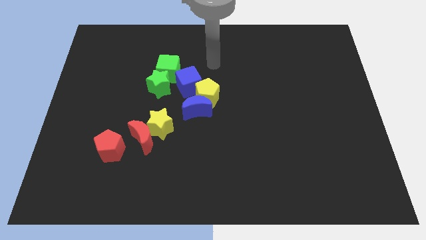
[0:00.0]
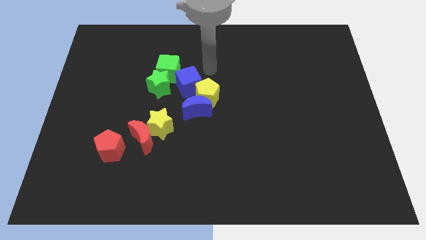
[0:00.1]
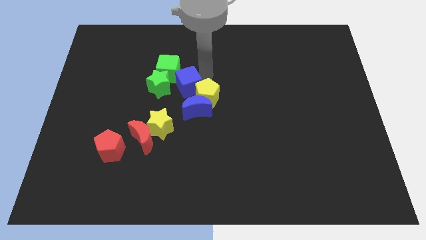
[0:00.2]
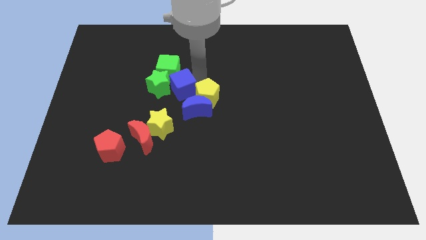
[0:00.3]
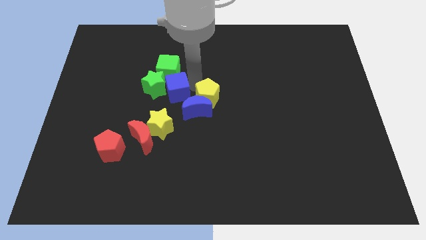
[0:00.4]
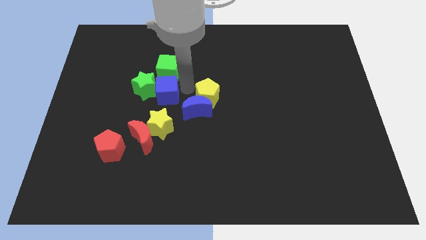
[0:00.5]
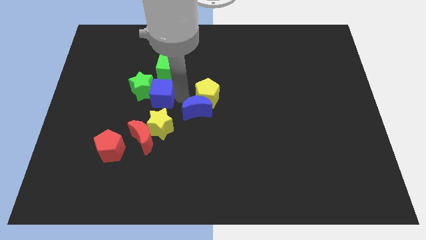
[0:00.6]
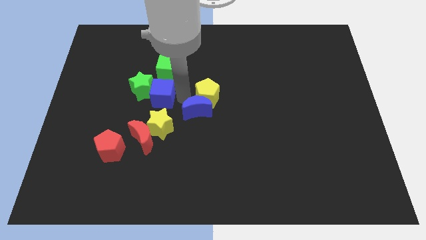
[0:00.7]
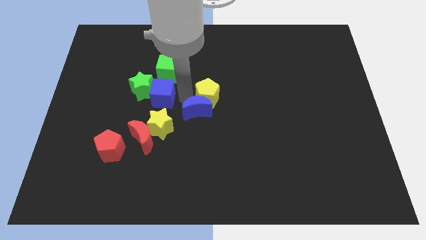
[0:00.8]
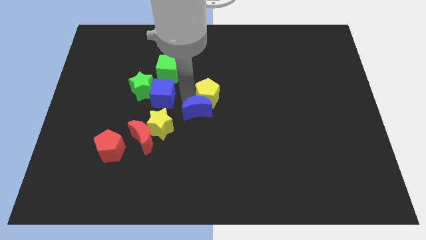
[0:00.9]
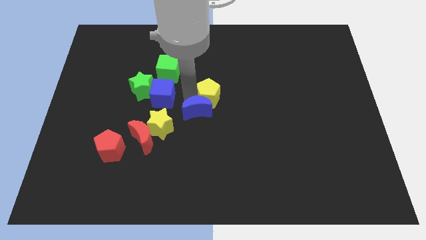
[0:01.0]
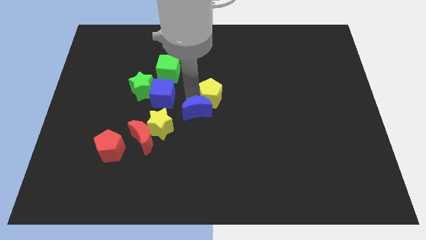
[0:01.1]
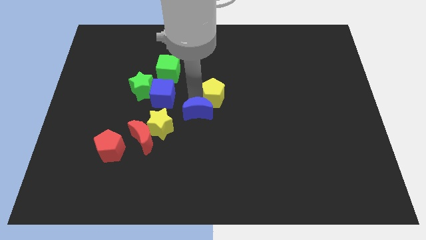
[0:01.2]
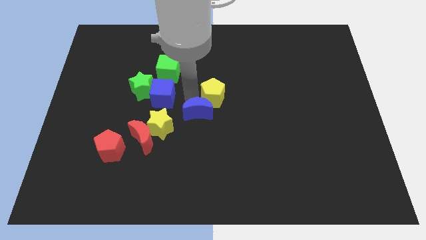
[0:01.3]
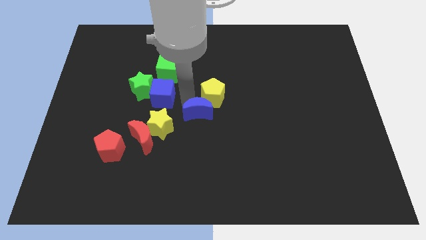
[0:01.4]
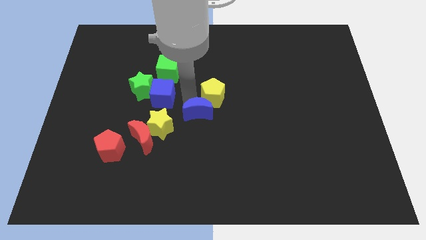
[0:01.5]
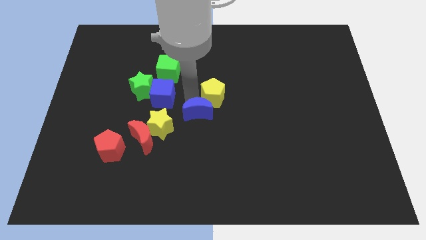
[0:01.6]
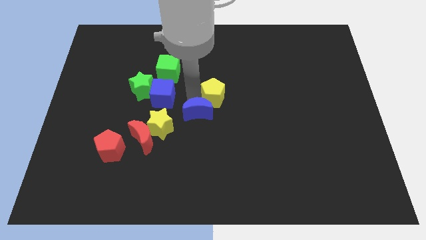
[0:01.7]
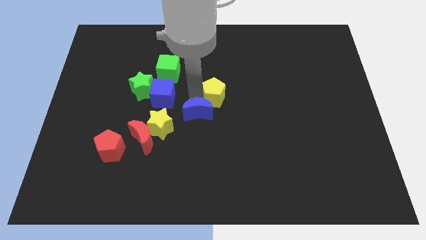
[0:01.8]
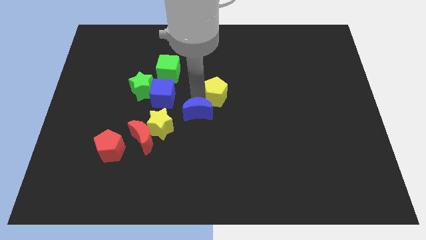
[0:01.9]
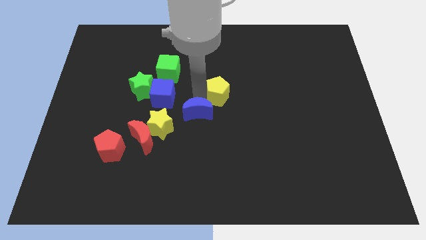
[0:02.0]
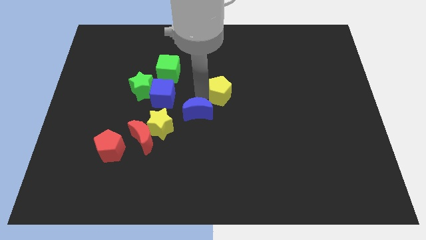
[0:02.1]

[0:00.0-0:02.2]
separate the yellow pentagon from the blue moon and blue cube

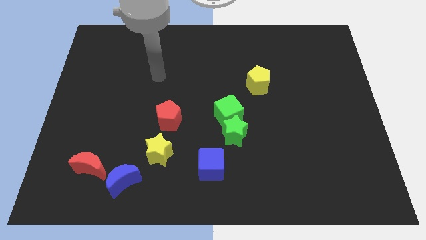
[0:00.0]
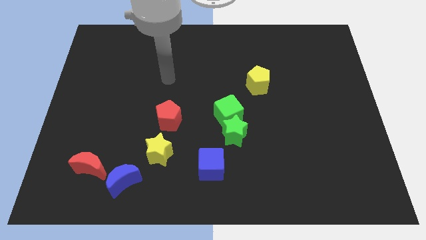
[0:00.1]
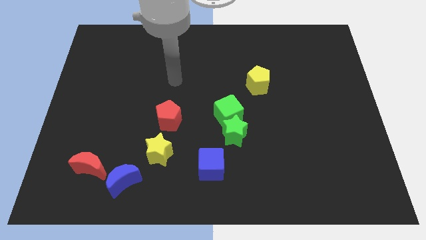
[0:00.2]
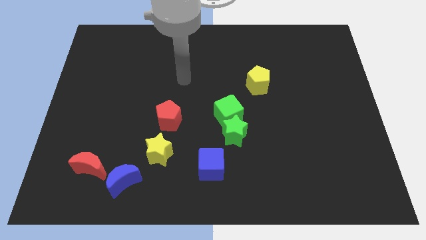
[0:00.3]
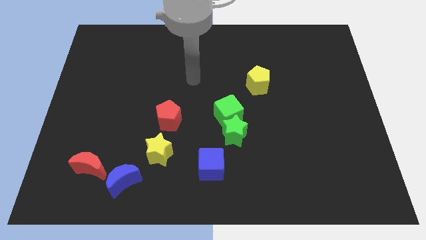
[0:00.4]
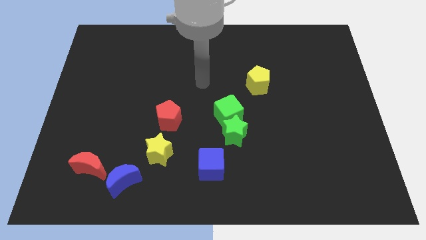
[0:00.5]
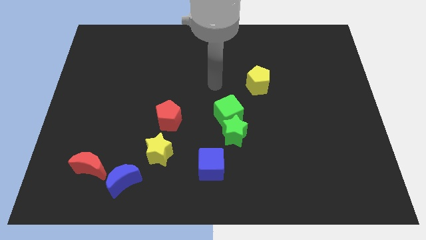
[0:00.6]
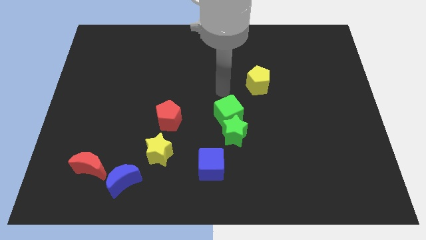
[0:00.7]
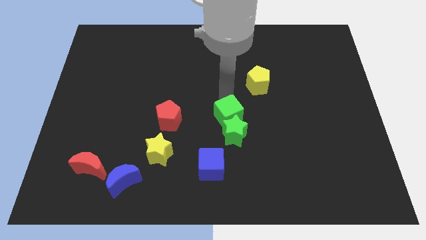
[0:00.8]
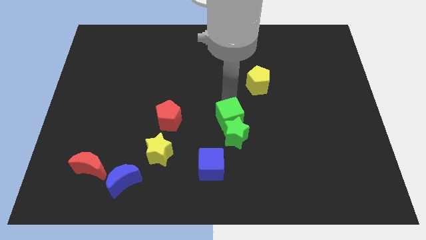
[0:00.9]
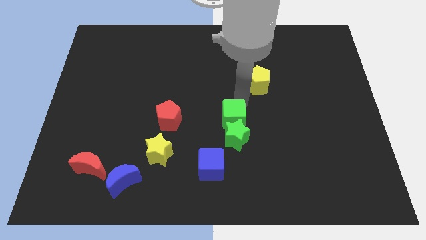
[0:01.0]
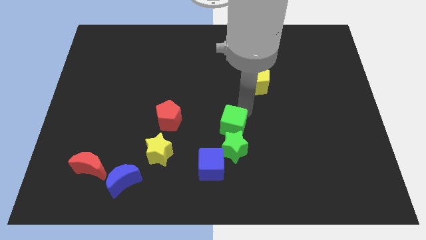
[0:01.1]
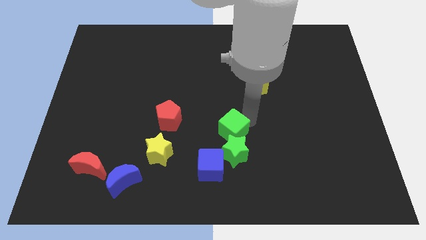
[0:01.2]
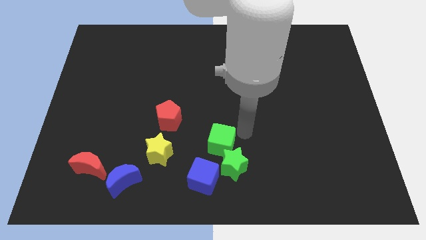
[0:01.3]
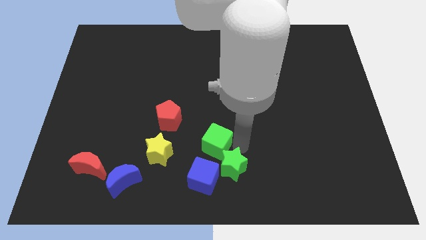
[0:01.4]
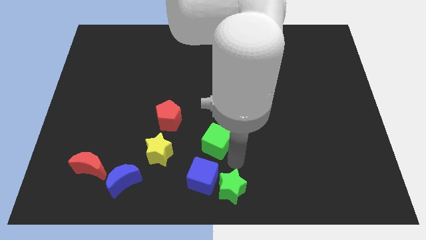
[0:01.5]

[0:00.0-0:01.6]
separate the green cube from the green star

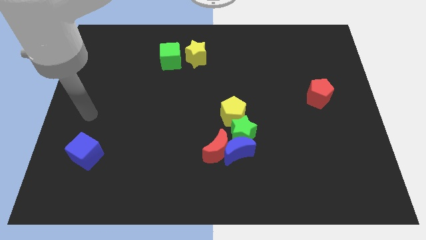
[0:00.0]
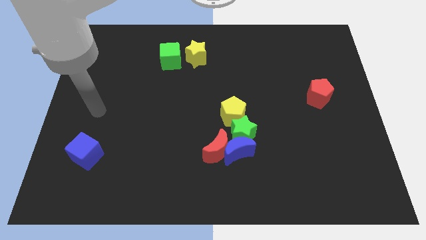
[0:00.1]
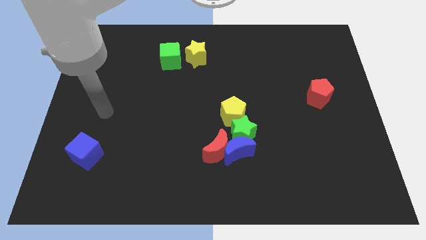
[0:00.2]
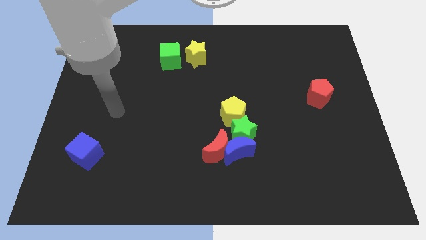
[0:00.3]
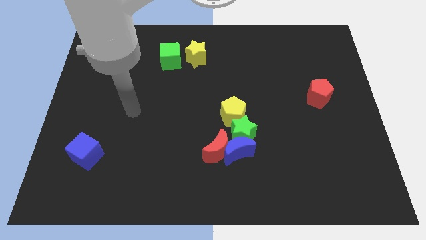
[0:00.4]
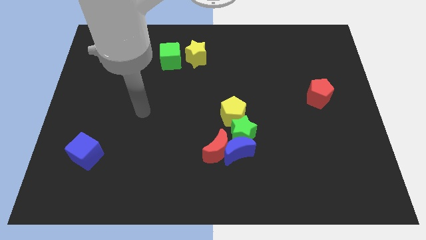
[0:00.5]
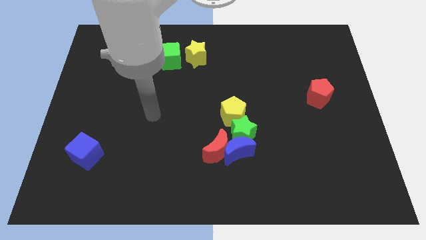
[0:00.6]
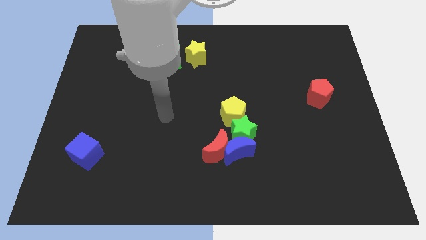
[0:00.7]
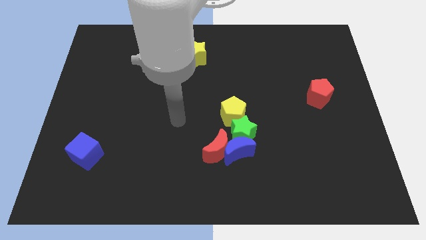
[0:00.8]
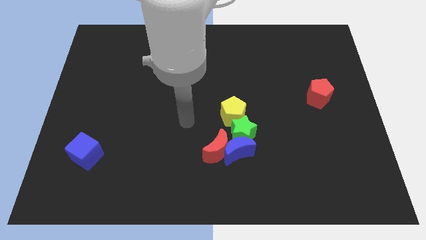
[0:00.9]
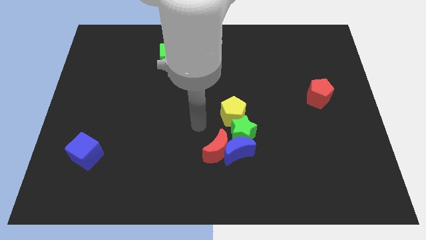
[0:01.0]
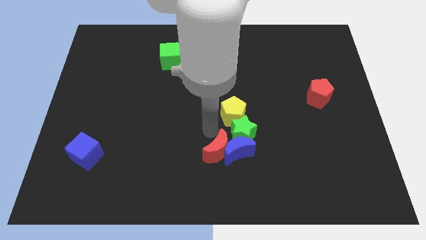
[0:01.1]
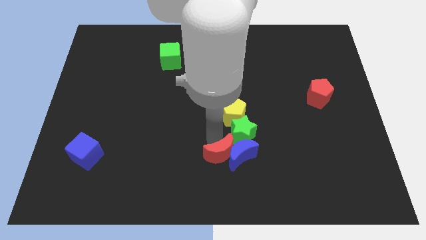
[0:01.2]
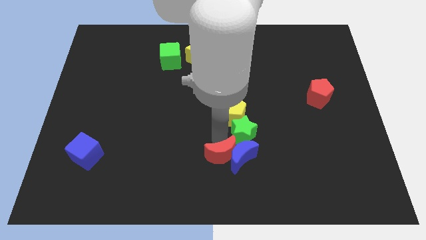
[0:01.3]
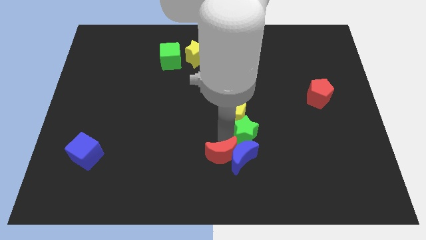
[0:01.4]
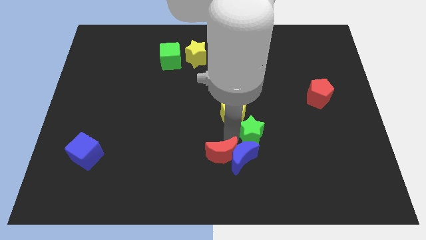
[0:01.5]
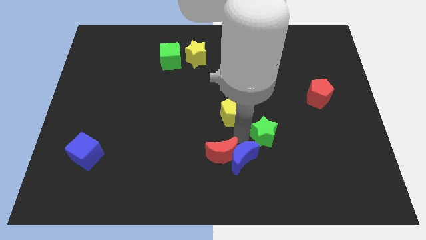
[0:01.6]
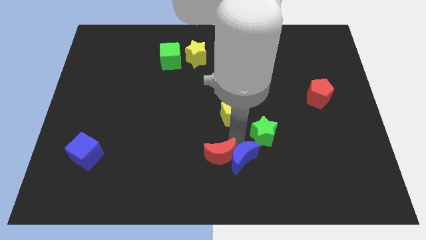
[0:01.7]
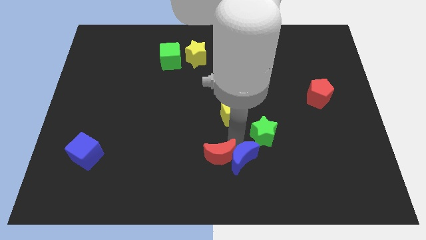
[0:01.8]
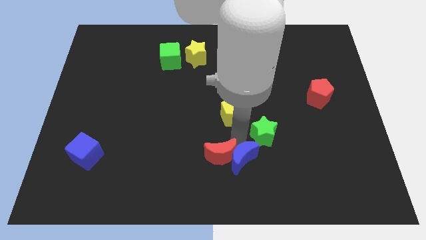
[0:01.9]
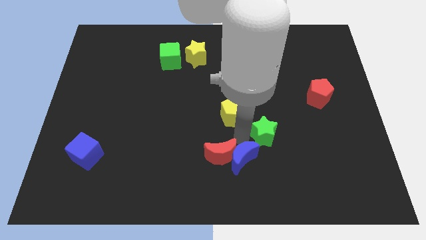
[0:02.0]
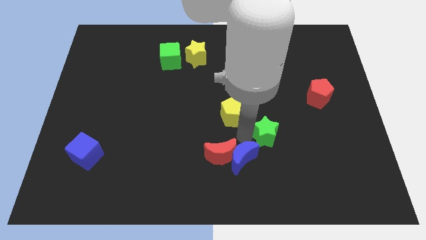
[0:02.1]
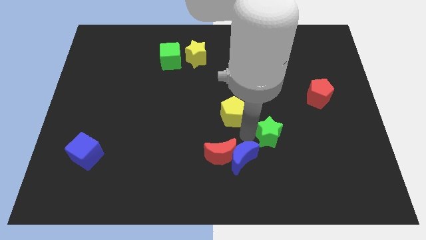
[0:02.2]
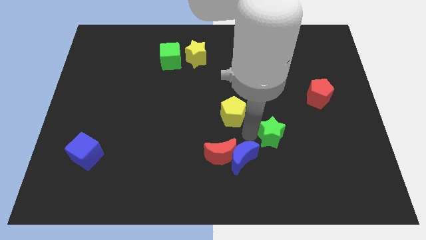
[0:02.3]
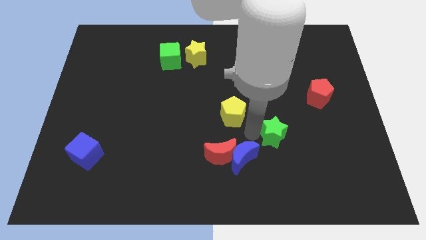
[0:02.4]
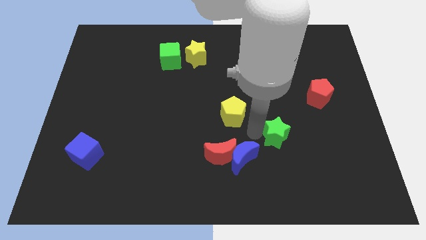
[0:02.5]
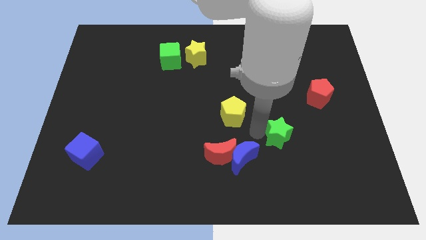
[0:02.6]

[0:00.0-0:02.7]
pull the green star apart from the blue moon, yellow pentagon, and red moon

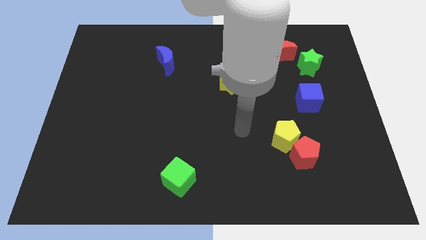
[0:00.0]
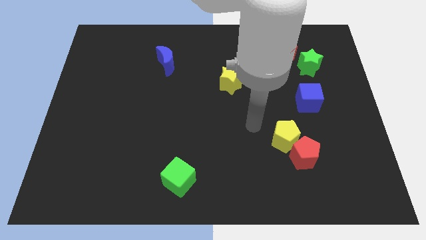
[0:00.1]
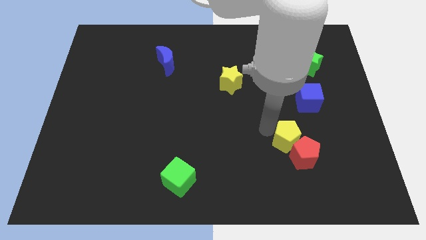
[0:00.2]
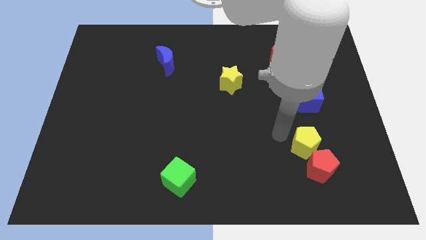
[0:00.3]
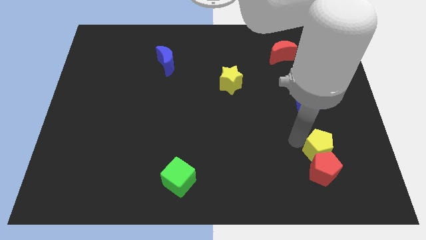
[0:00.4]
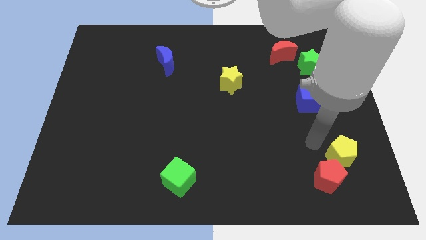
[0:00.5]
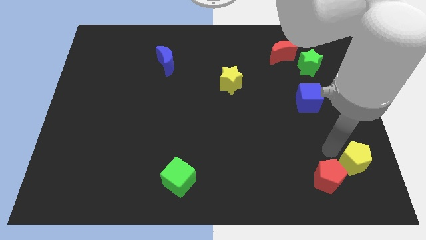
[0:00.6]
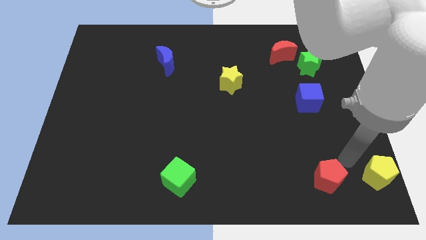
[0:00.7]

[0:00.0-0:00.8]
pull the red pentagon apart from the yellow pentagon

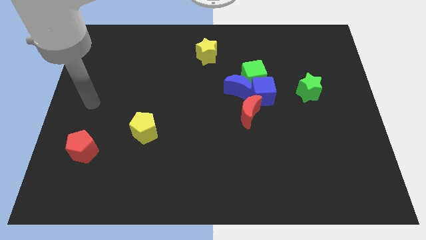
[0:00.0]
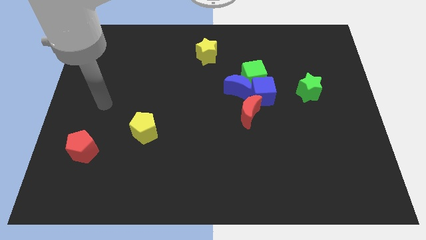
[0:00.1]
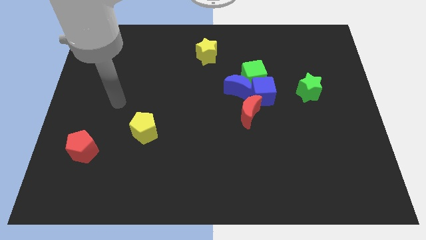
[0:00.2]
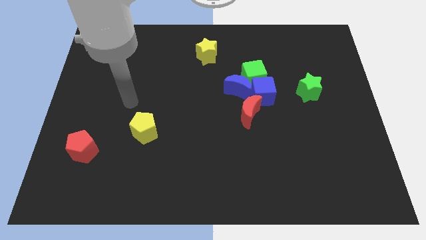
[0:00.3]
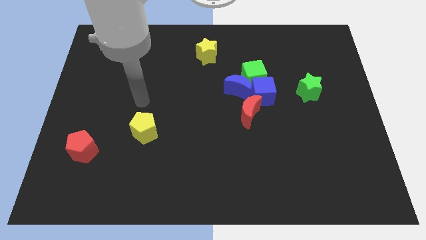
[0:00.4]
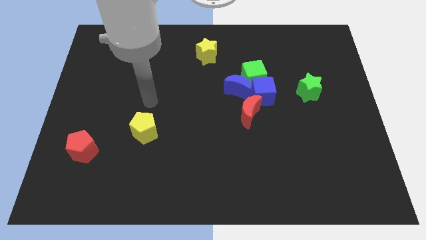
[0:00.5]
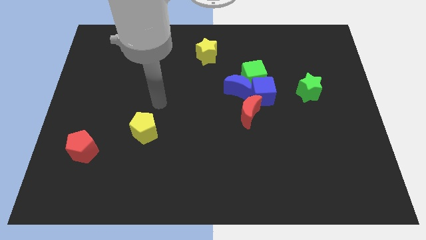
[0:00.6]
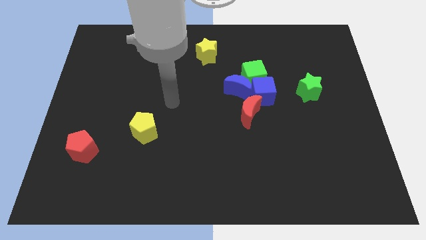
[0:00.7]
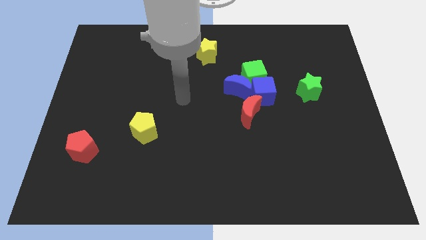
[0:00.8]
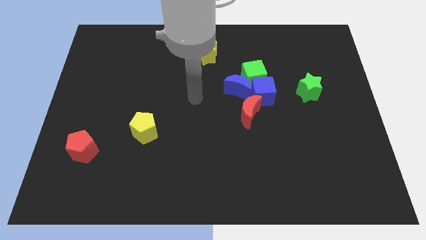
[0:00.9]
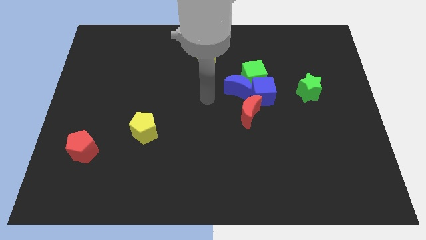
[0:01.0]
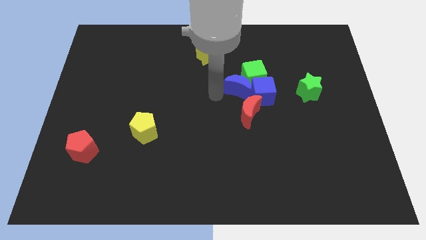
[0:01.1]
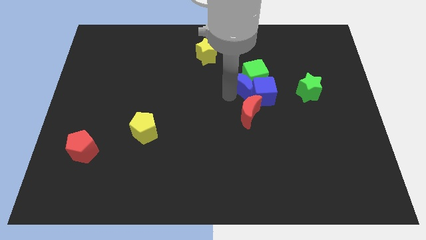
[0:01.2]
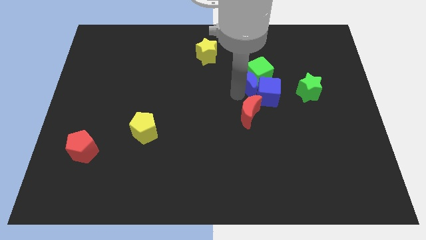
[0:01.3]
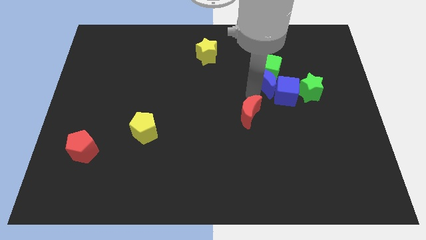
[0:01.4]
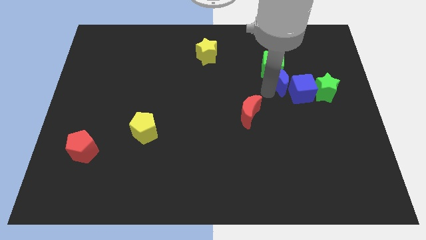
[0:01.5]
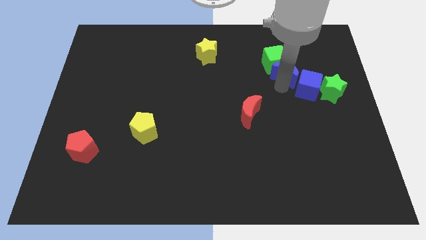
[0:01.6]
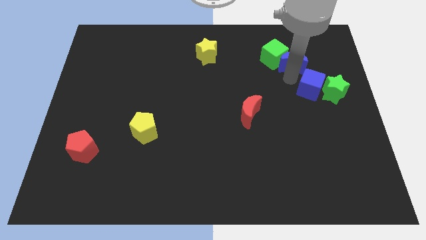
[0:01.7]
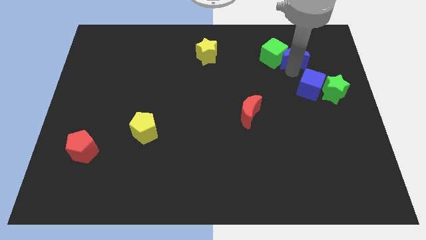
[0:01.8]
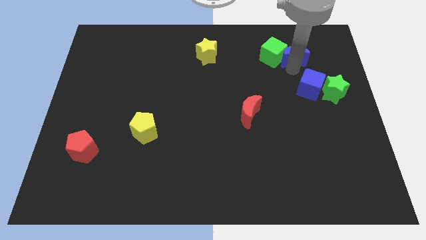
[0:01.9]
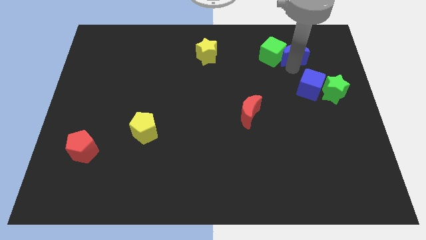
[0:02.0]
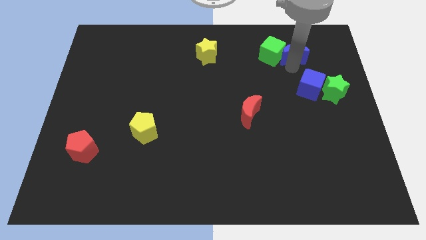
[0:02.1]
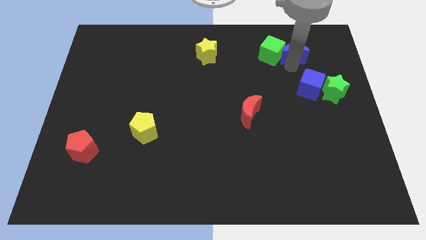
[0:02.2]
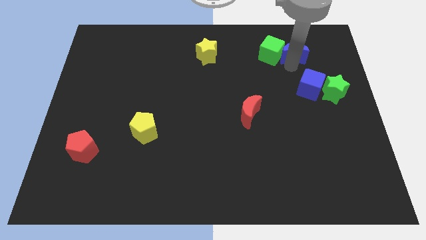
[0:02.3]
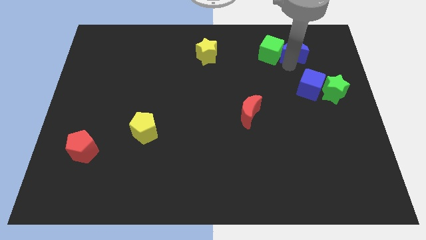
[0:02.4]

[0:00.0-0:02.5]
move the green cube away from the blue moon and blue cube
